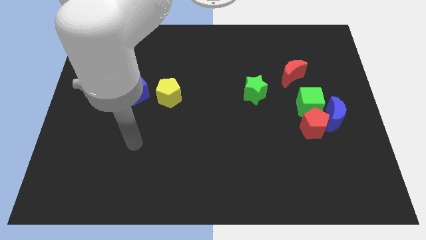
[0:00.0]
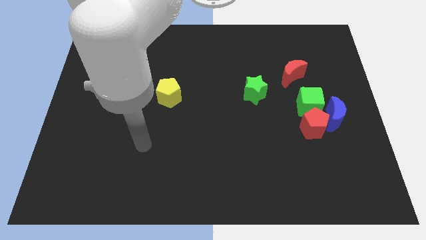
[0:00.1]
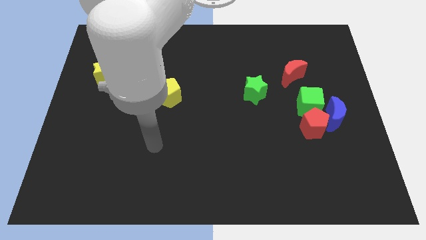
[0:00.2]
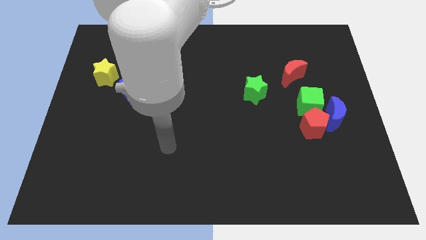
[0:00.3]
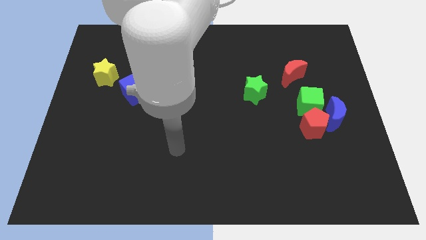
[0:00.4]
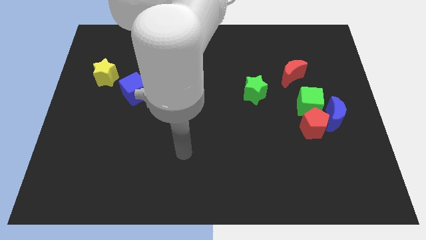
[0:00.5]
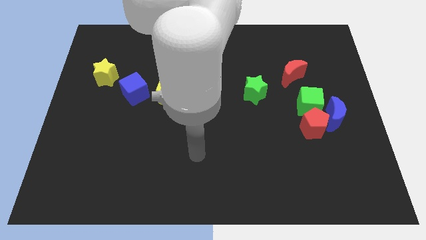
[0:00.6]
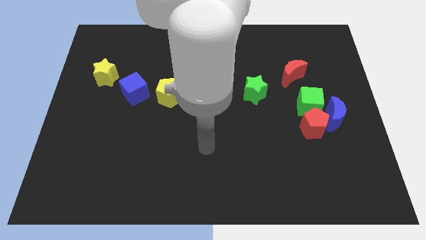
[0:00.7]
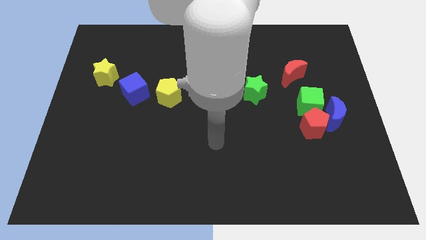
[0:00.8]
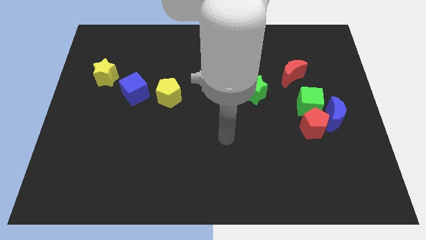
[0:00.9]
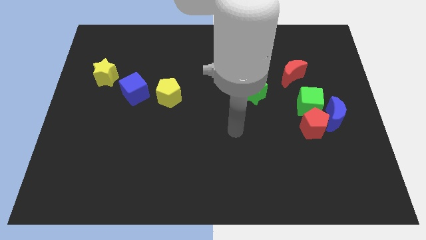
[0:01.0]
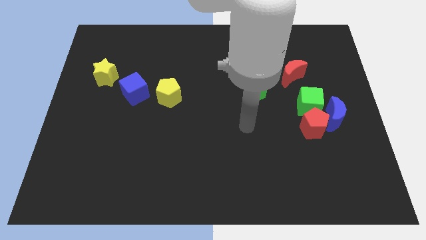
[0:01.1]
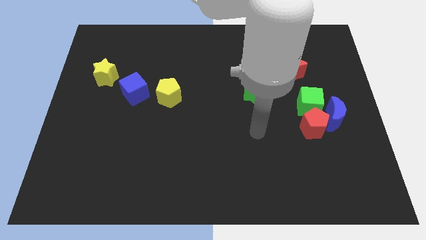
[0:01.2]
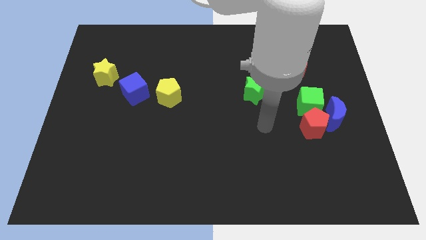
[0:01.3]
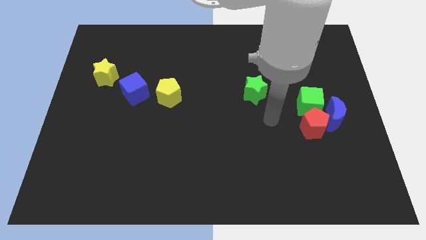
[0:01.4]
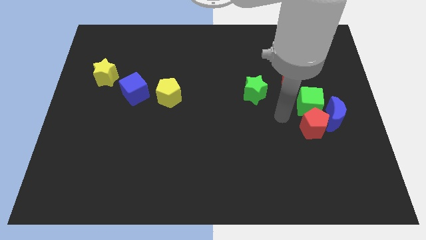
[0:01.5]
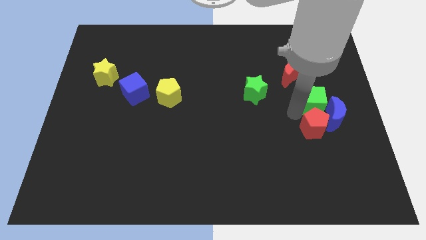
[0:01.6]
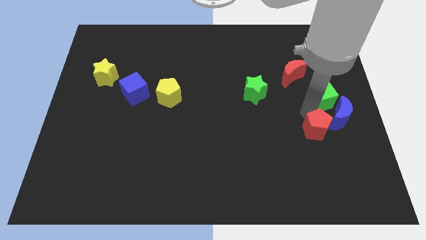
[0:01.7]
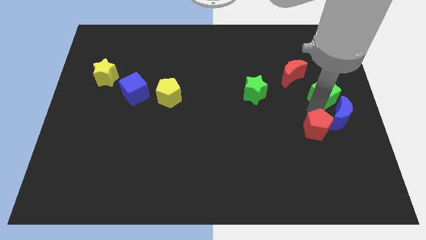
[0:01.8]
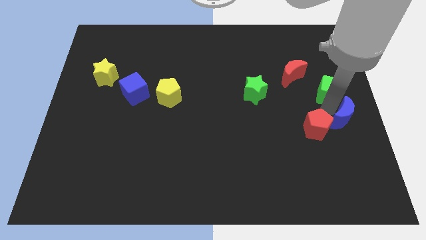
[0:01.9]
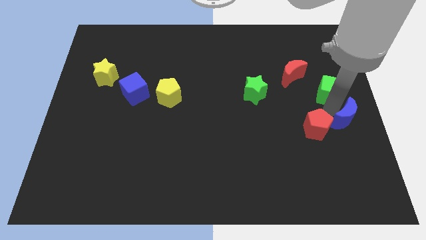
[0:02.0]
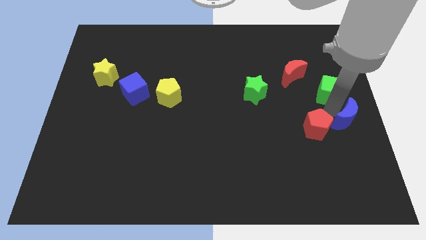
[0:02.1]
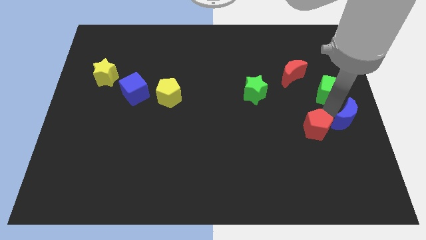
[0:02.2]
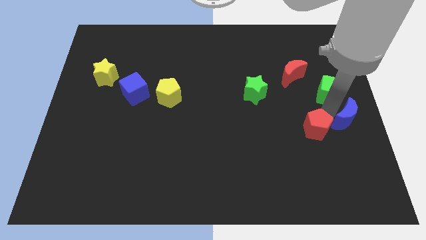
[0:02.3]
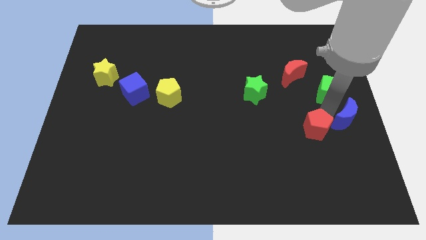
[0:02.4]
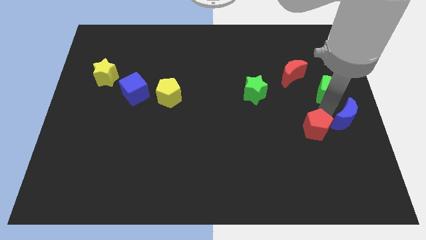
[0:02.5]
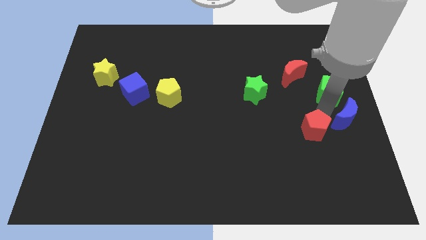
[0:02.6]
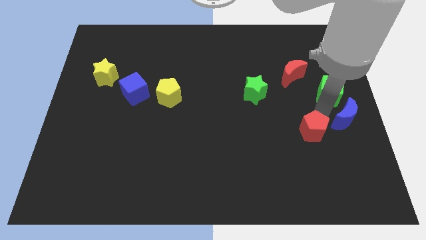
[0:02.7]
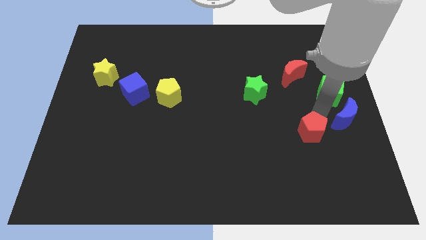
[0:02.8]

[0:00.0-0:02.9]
separate the red pentagon from the blue moon and green cube

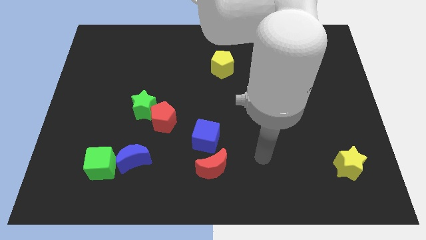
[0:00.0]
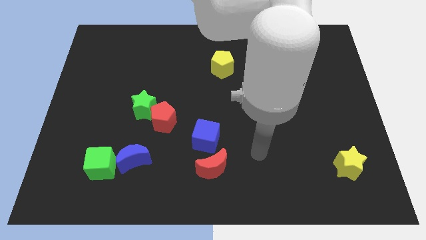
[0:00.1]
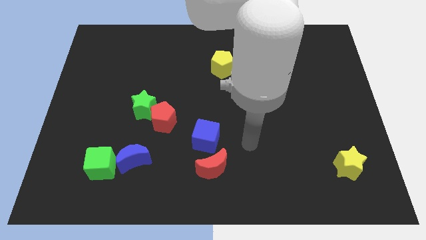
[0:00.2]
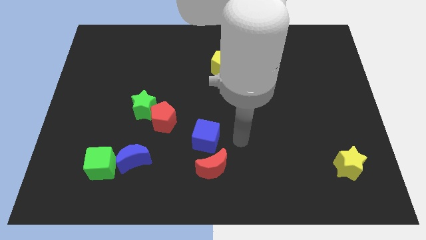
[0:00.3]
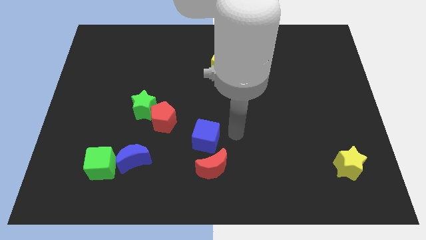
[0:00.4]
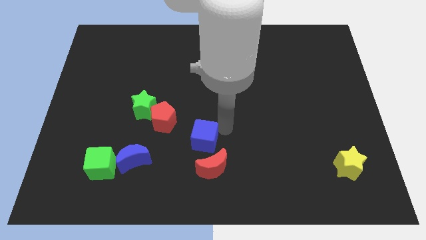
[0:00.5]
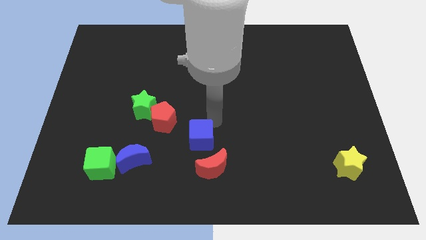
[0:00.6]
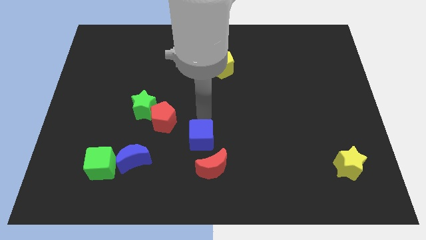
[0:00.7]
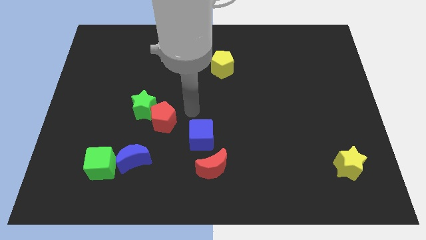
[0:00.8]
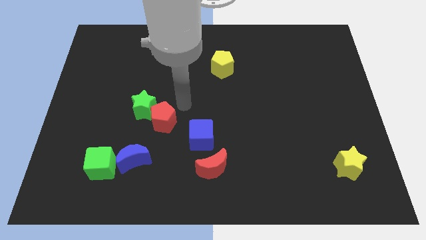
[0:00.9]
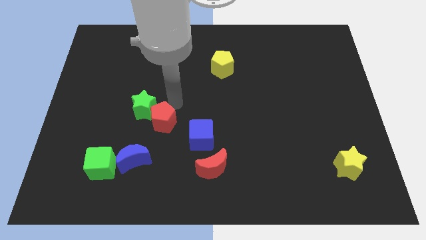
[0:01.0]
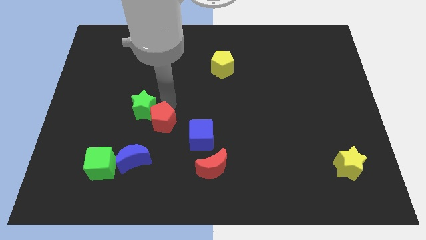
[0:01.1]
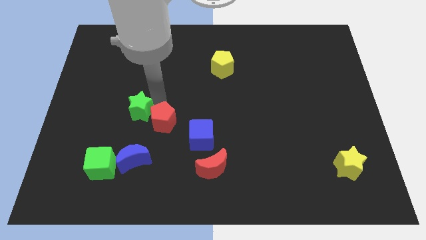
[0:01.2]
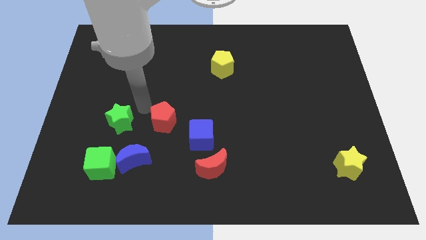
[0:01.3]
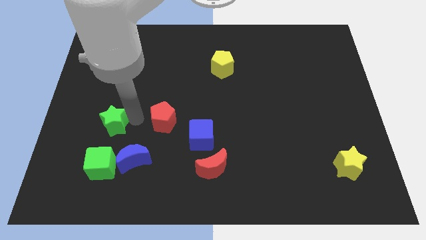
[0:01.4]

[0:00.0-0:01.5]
separate the red pentagon from the green star

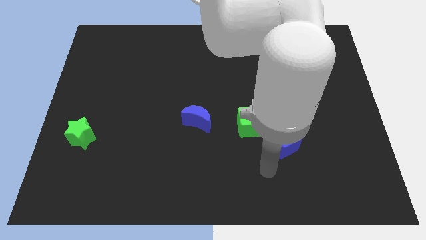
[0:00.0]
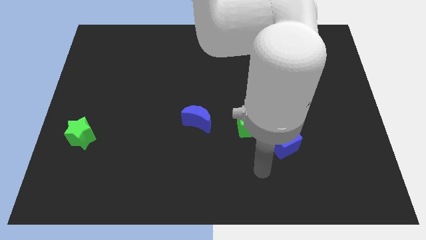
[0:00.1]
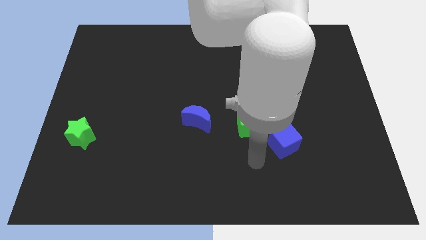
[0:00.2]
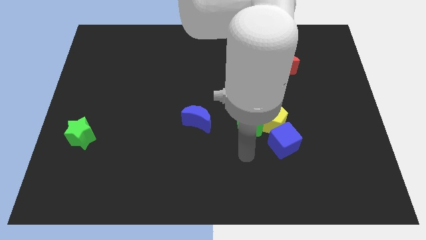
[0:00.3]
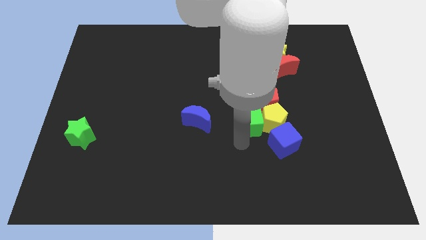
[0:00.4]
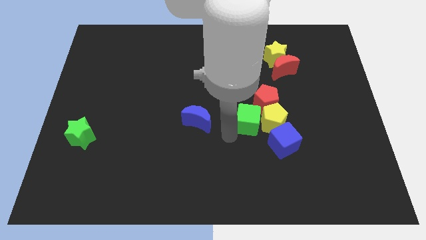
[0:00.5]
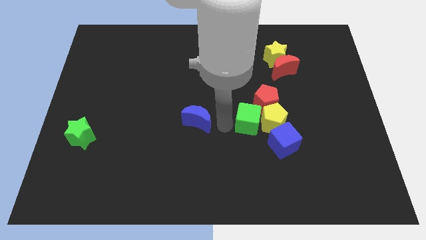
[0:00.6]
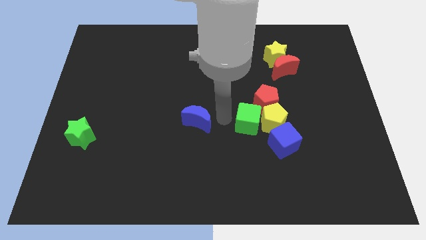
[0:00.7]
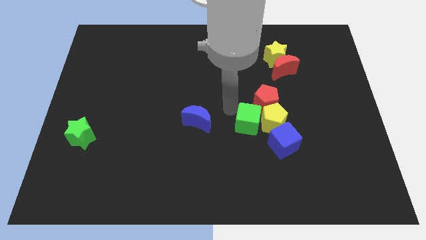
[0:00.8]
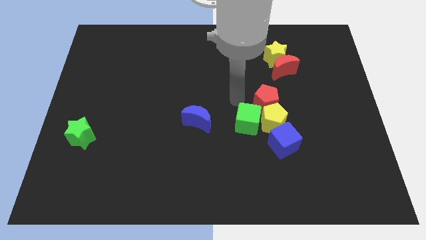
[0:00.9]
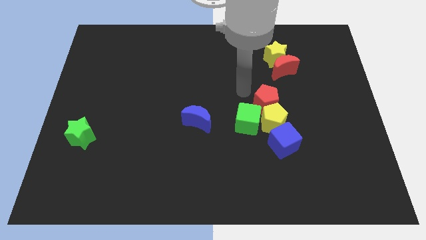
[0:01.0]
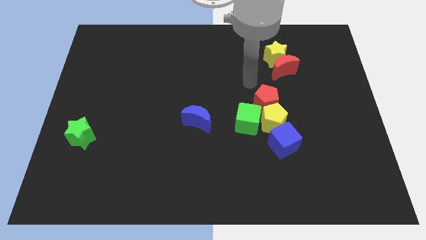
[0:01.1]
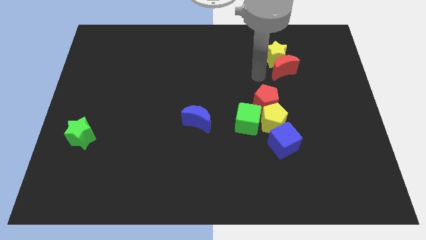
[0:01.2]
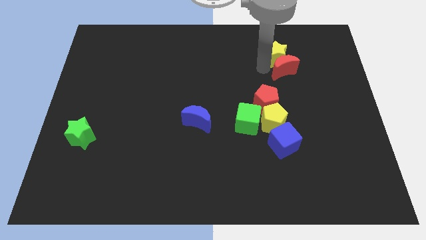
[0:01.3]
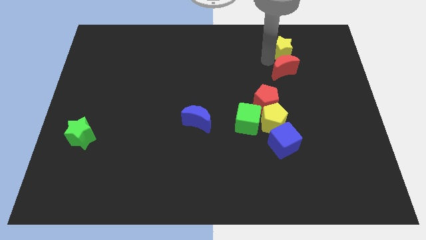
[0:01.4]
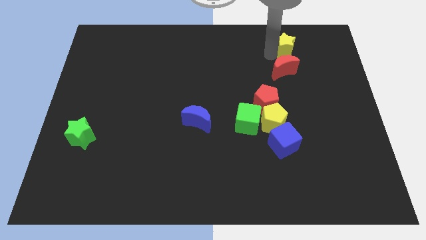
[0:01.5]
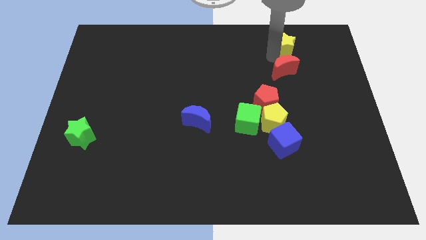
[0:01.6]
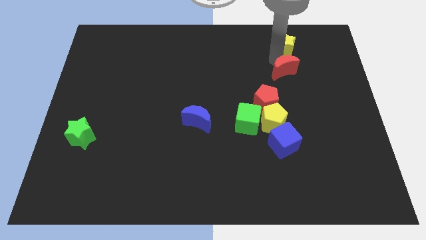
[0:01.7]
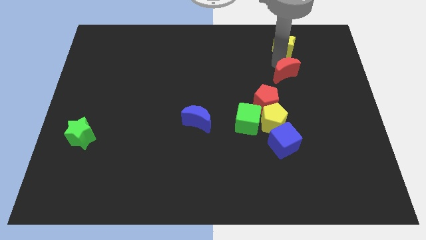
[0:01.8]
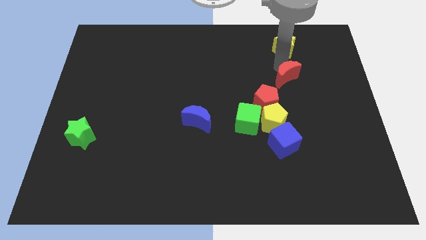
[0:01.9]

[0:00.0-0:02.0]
pull the red moon apart from the yellow star

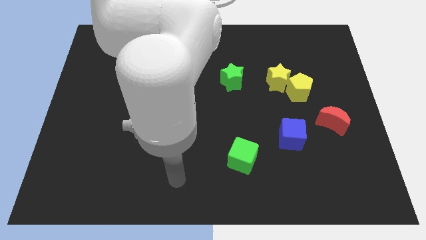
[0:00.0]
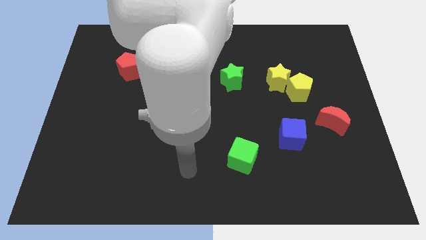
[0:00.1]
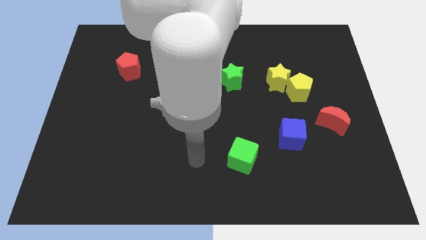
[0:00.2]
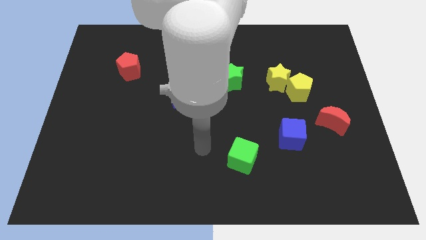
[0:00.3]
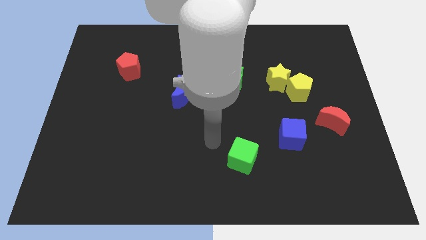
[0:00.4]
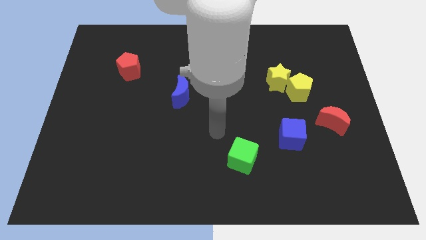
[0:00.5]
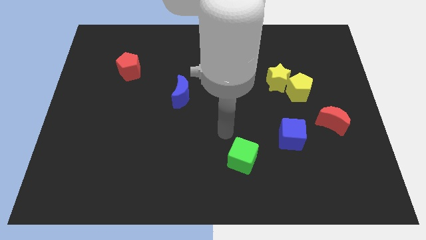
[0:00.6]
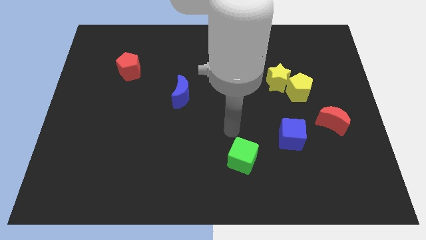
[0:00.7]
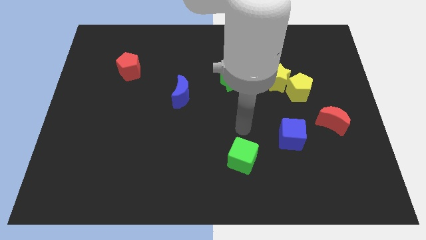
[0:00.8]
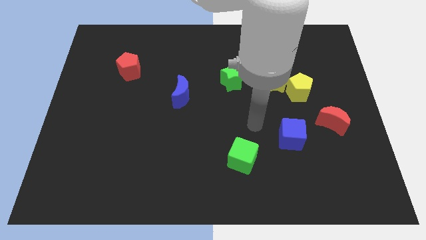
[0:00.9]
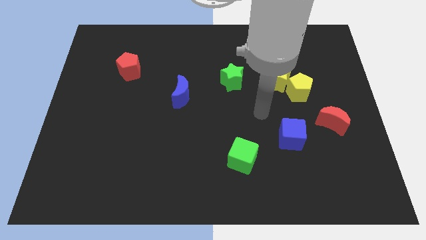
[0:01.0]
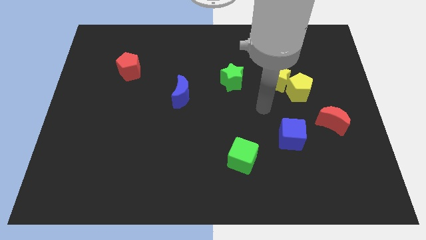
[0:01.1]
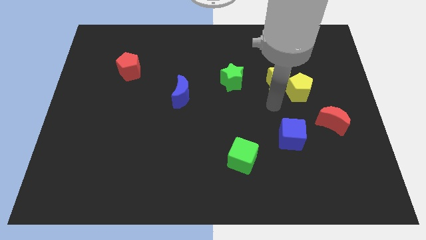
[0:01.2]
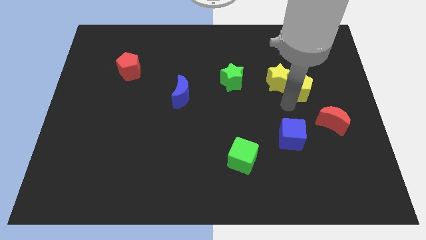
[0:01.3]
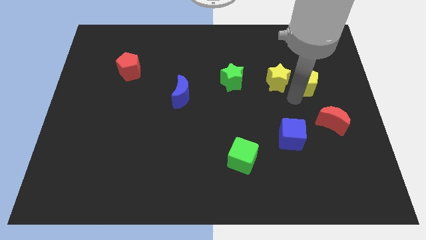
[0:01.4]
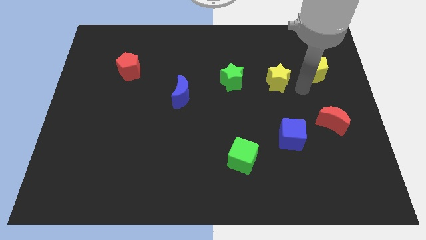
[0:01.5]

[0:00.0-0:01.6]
separate the yellow star from the yellow pentagon

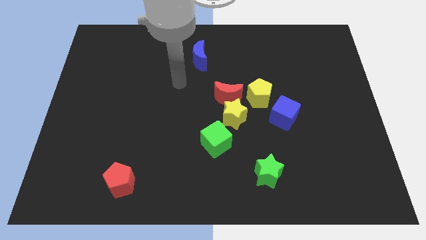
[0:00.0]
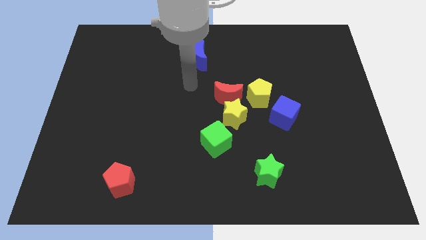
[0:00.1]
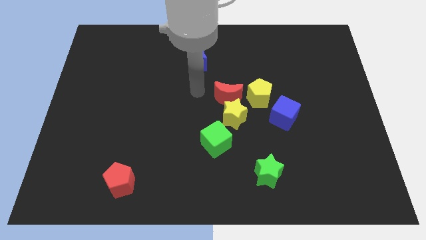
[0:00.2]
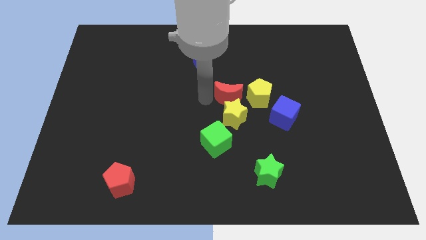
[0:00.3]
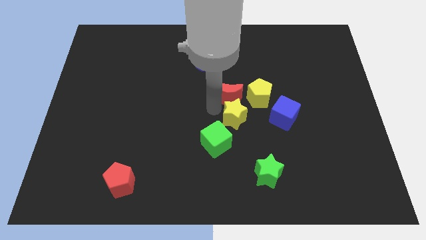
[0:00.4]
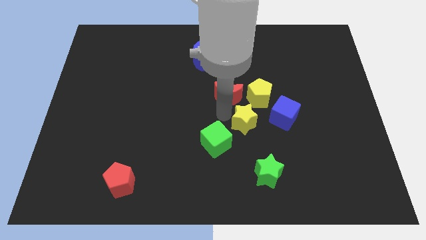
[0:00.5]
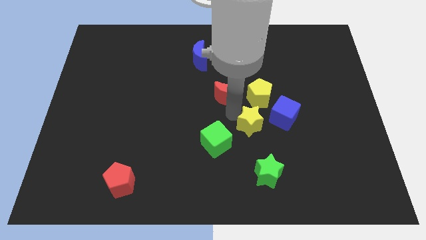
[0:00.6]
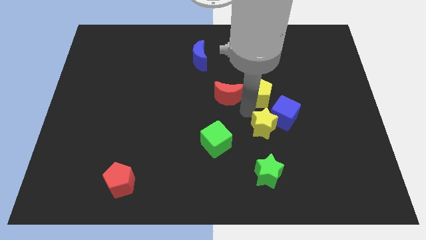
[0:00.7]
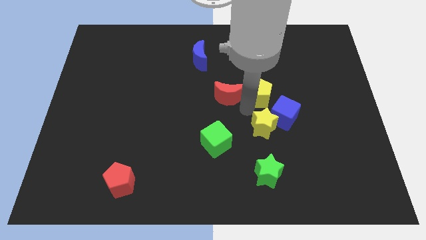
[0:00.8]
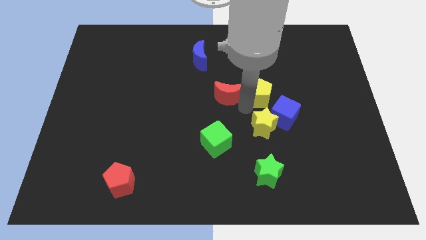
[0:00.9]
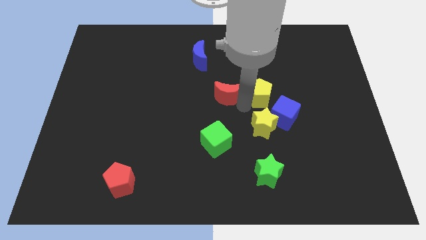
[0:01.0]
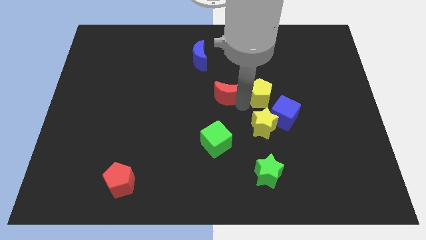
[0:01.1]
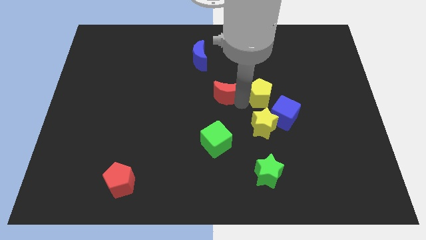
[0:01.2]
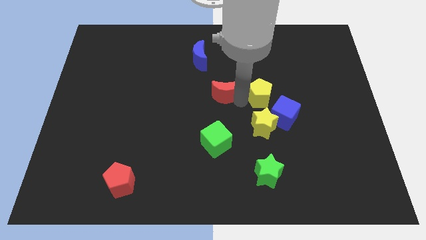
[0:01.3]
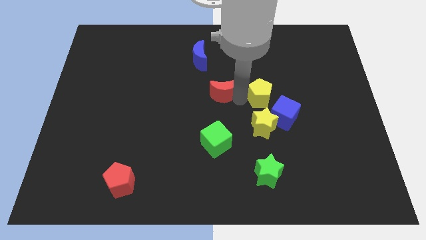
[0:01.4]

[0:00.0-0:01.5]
pull the red moon apart from the yellow star and yellow pentagon
